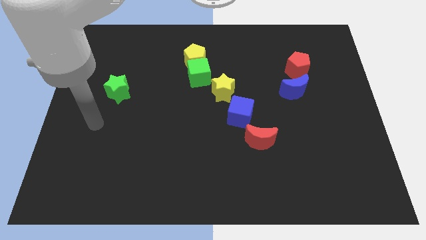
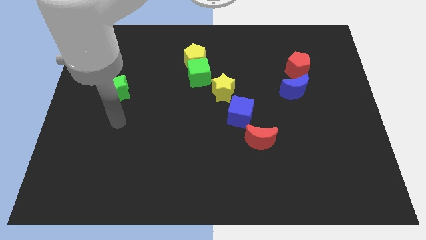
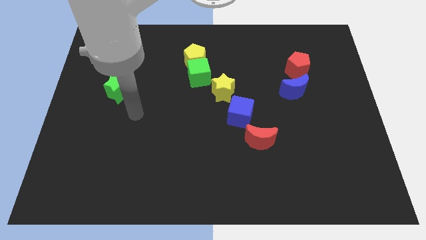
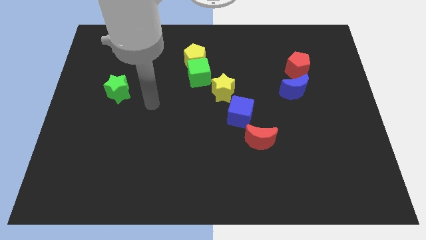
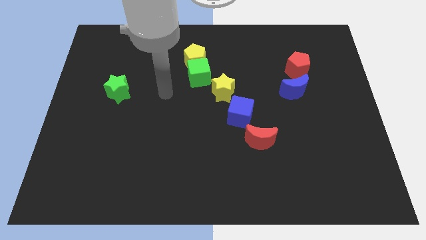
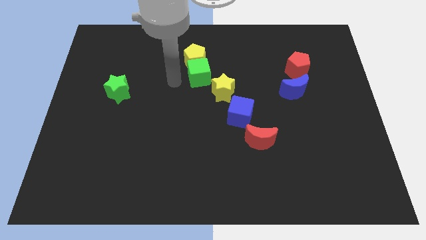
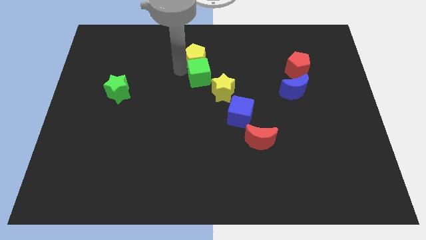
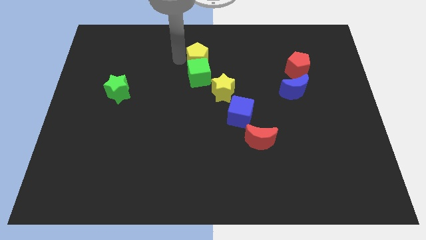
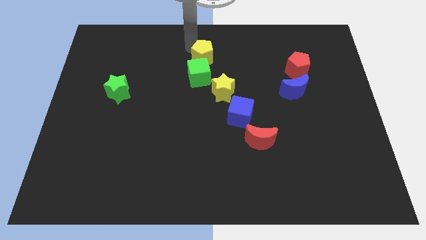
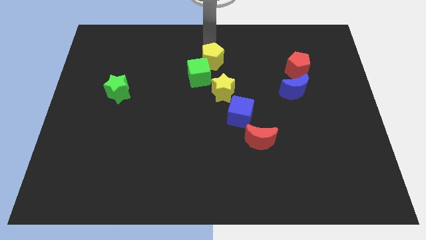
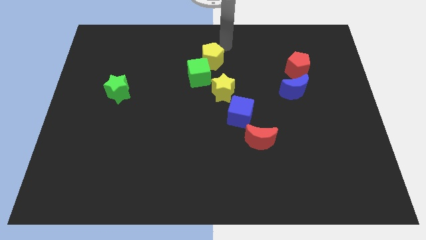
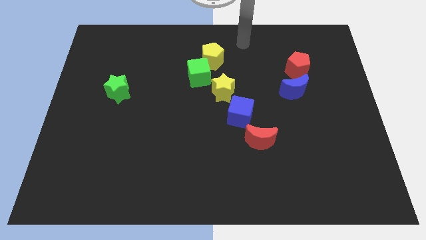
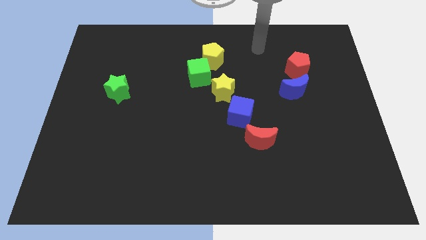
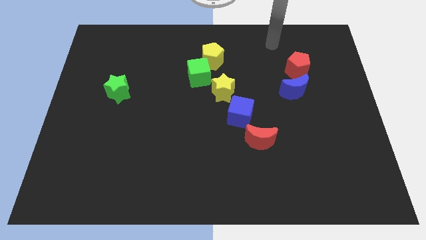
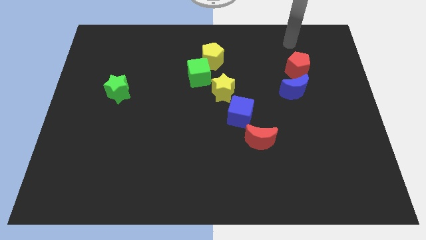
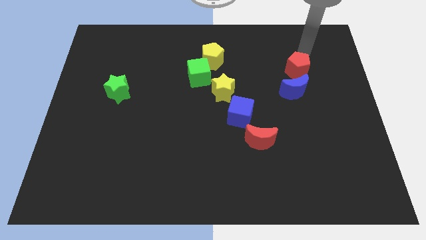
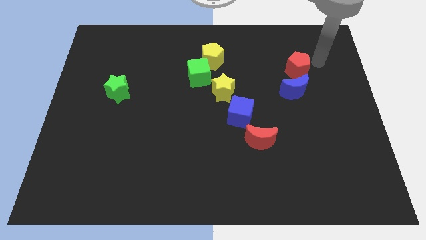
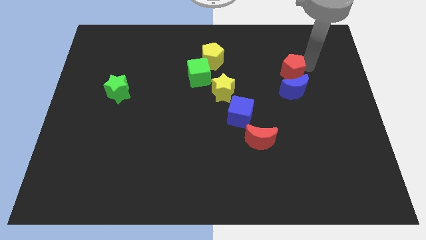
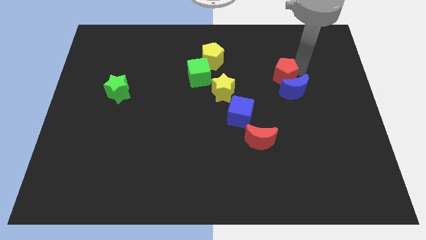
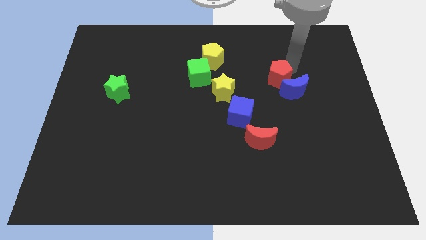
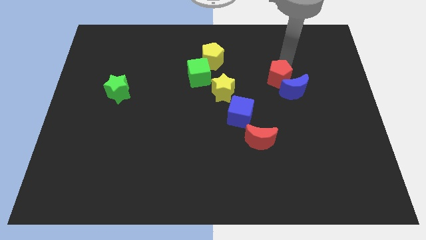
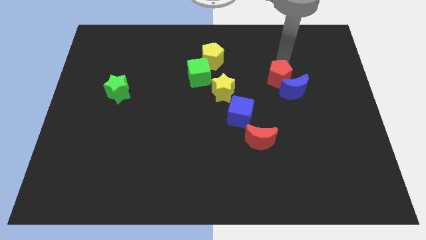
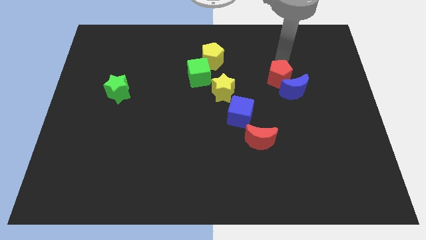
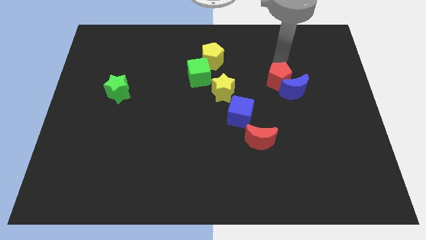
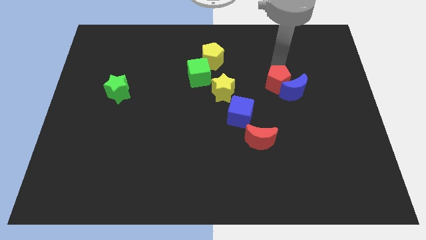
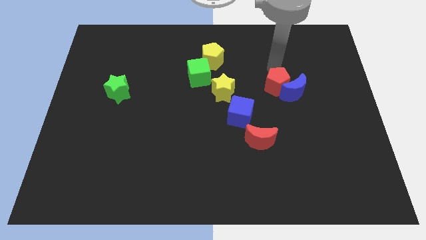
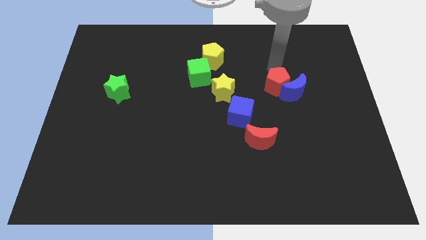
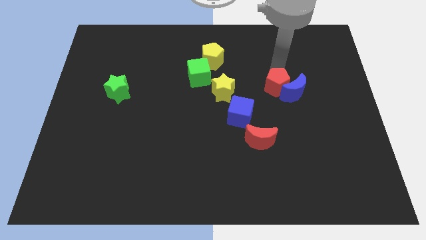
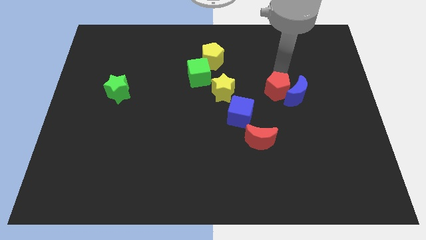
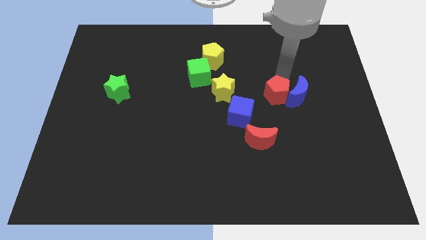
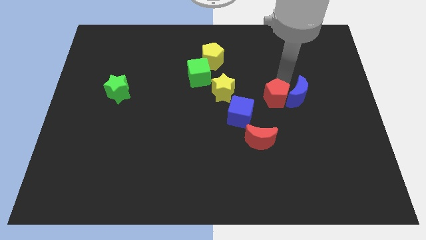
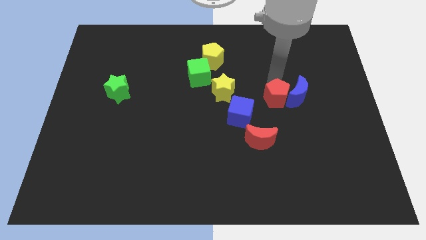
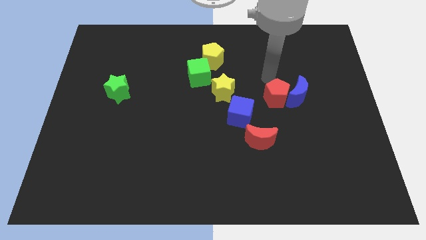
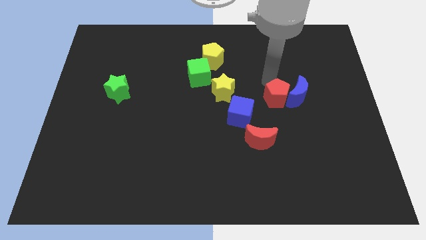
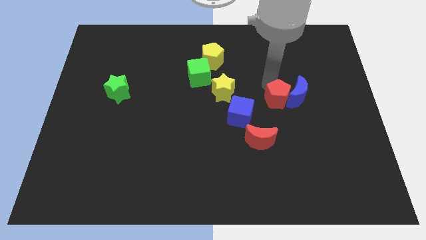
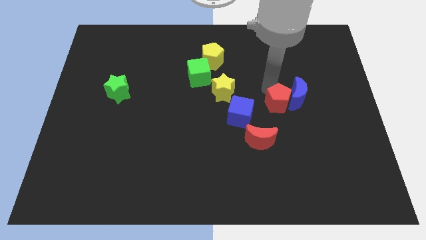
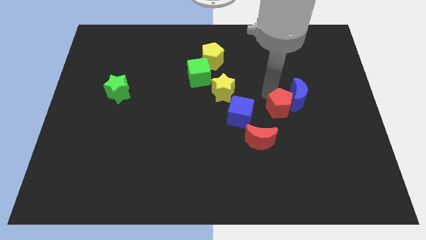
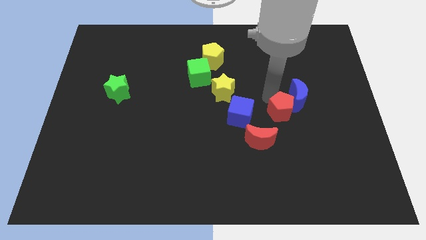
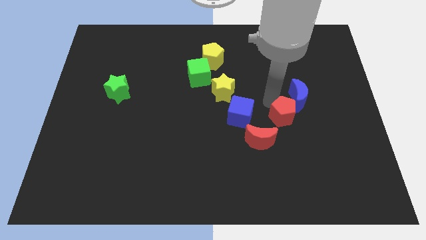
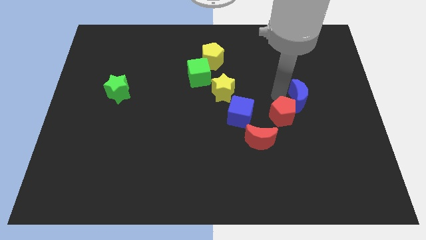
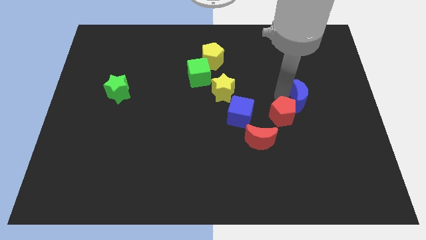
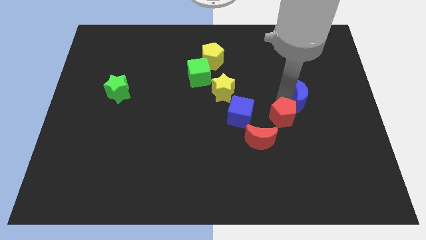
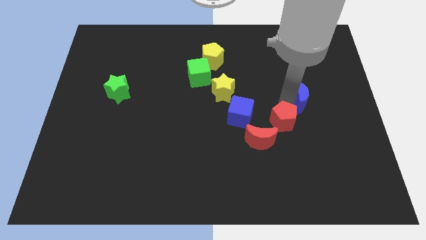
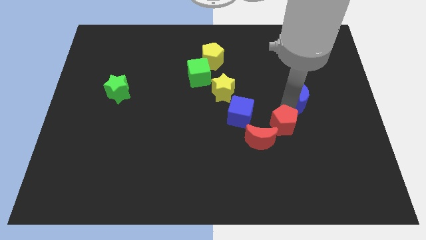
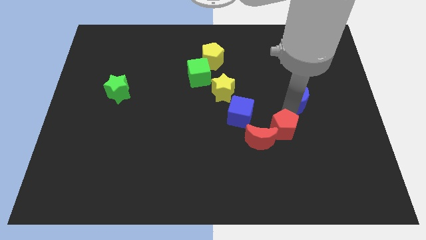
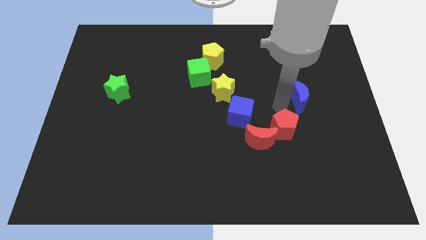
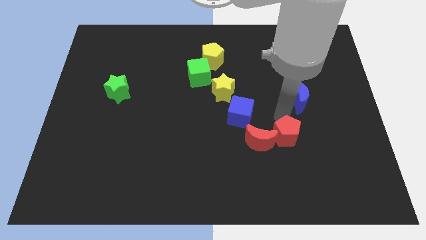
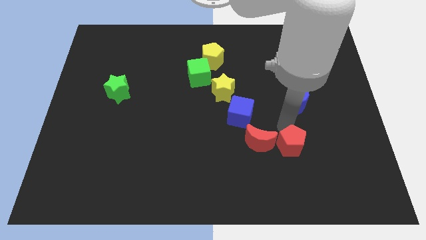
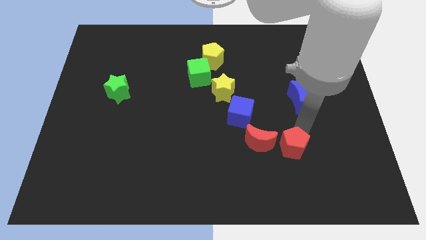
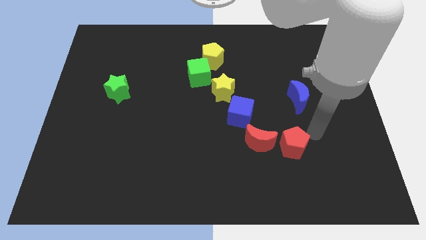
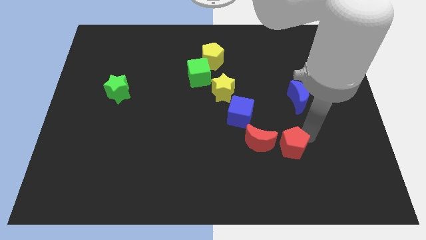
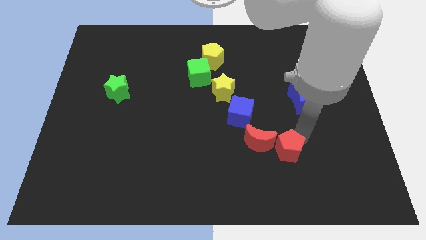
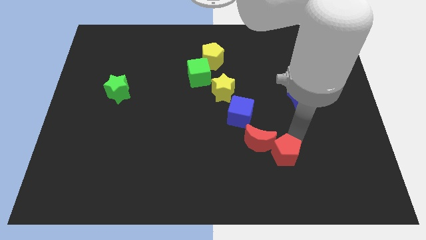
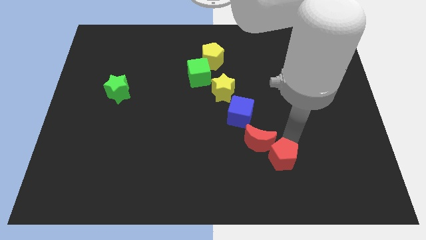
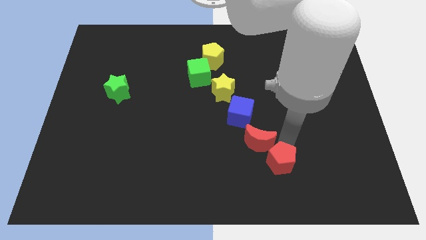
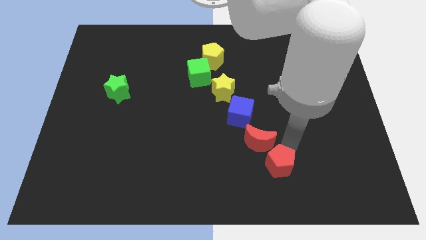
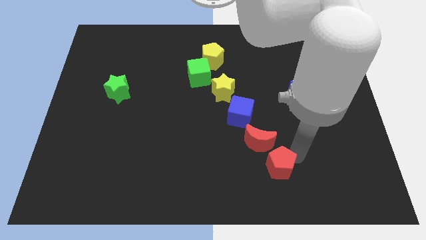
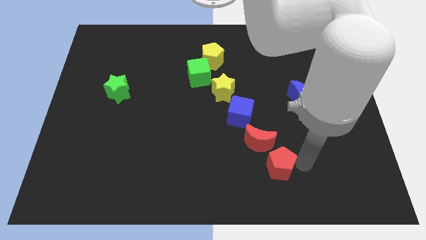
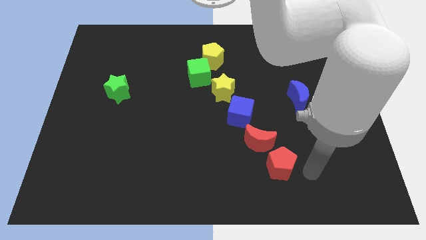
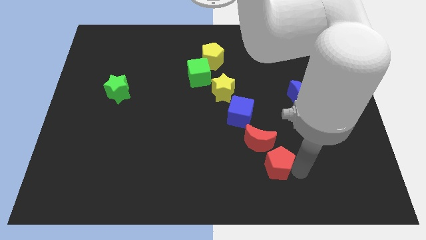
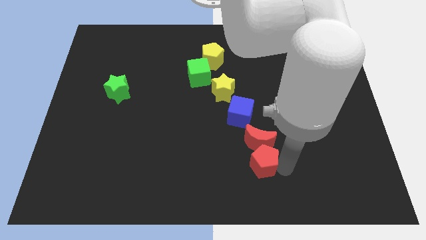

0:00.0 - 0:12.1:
move the red pentagon diagonally down and to the left of the red moon
